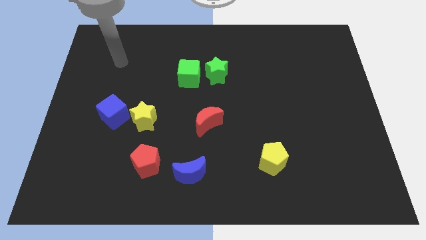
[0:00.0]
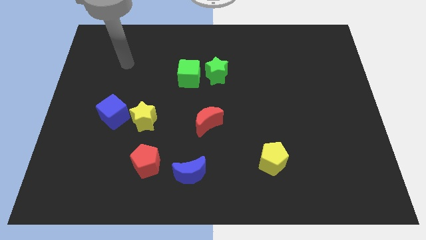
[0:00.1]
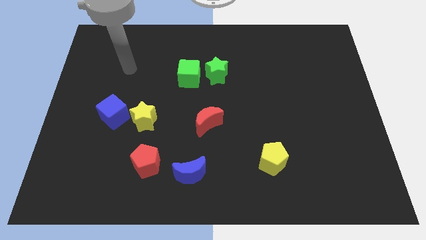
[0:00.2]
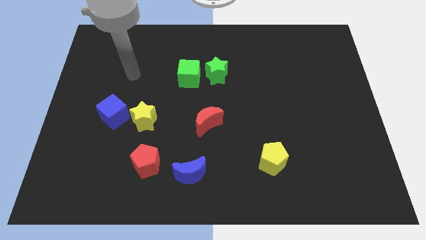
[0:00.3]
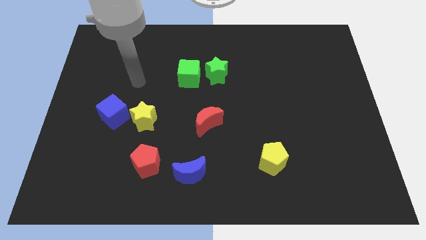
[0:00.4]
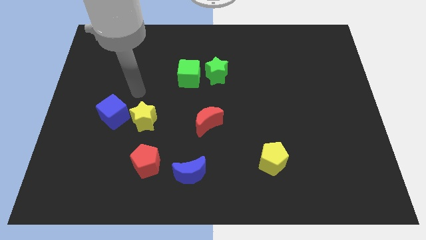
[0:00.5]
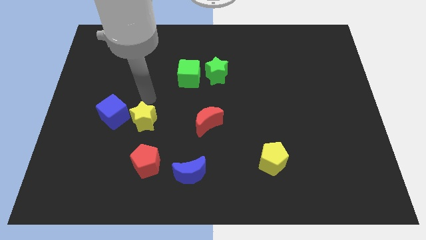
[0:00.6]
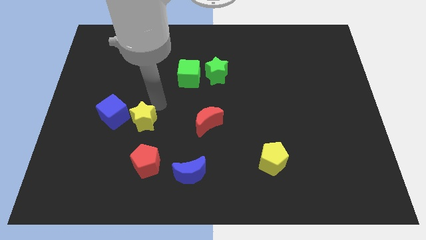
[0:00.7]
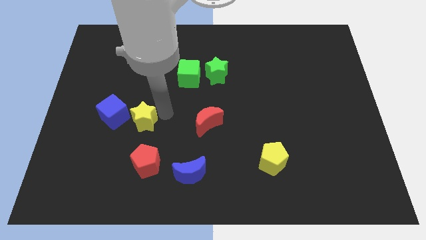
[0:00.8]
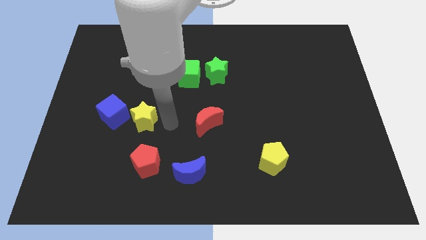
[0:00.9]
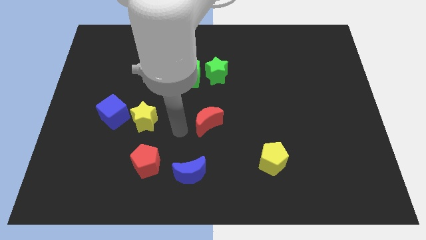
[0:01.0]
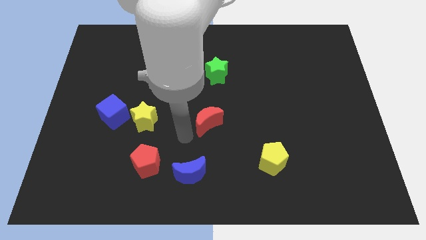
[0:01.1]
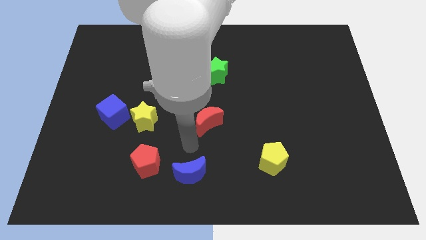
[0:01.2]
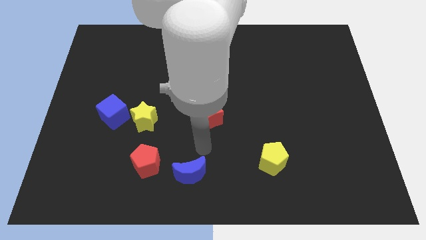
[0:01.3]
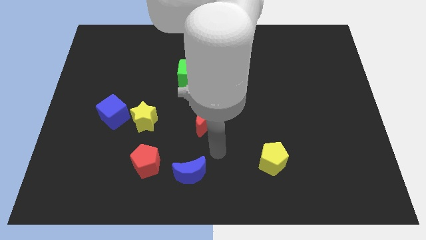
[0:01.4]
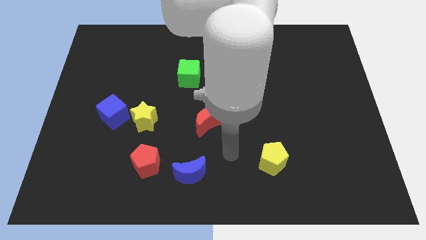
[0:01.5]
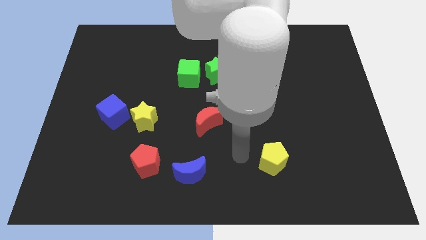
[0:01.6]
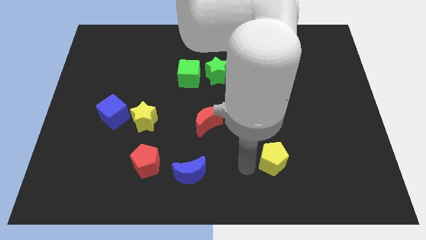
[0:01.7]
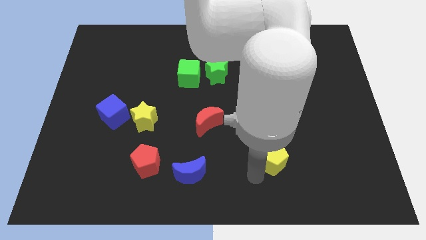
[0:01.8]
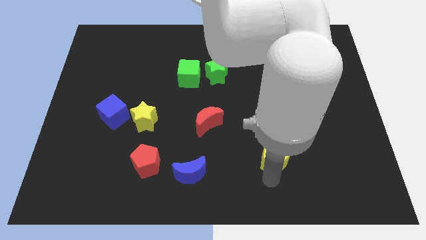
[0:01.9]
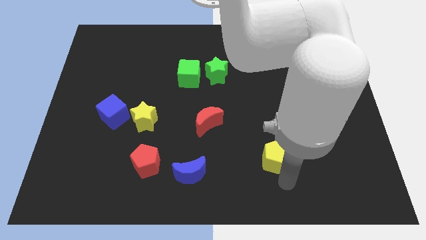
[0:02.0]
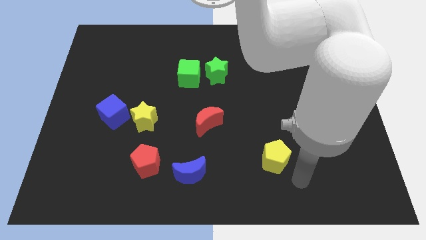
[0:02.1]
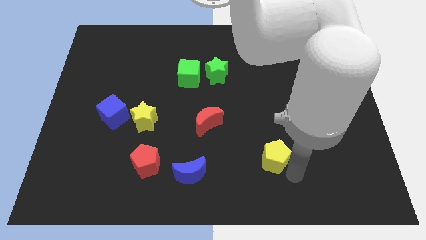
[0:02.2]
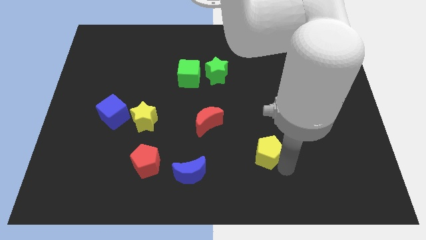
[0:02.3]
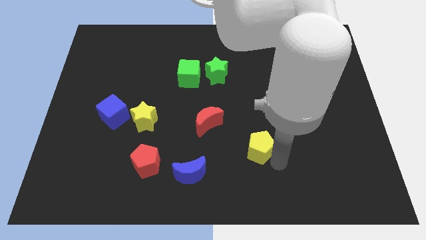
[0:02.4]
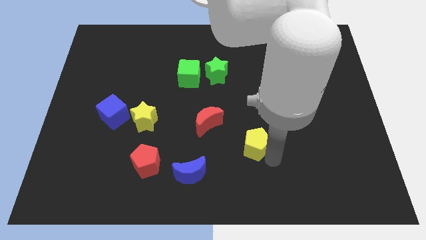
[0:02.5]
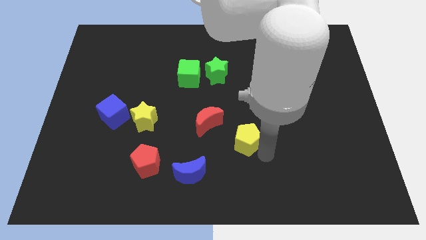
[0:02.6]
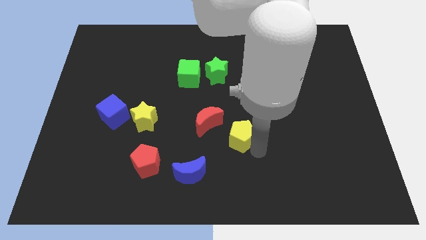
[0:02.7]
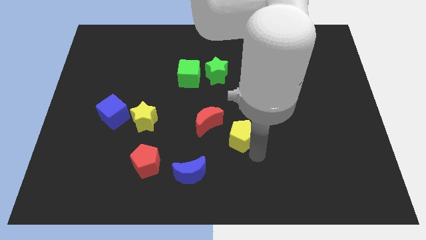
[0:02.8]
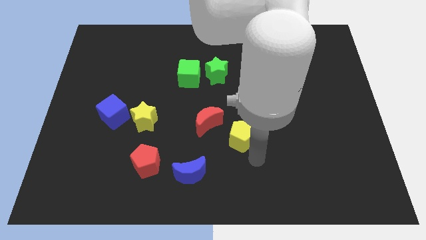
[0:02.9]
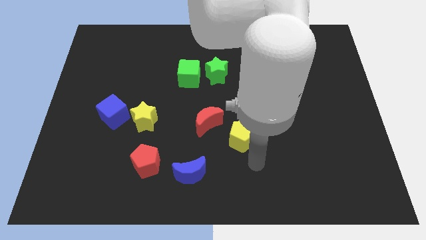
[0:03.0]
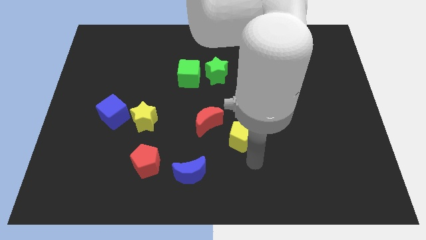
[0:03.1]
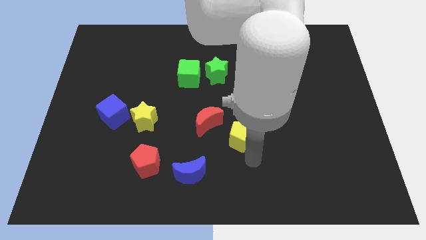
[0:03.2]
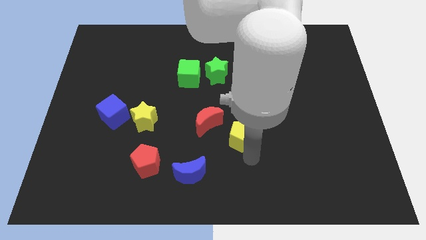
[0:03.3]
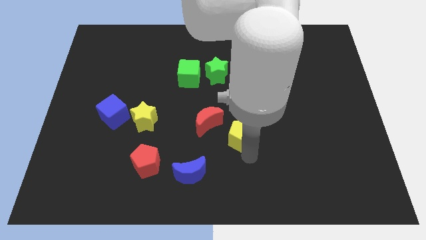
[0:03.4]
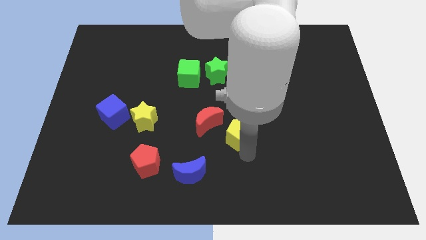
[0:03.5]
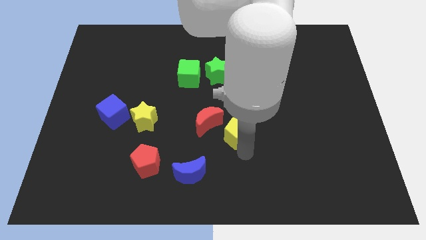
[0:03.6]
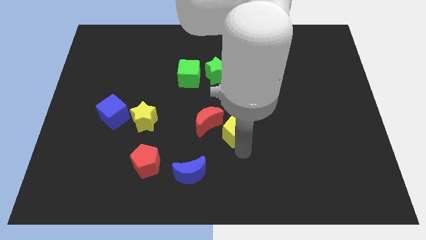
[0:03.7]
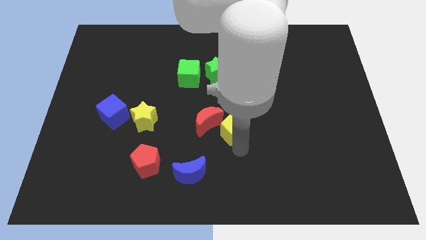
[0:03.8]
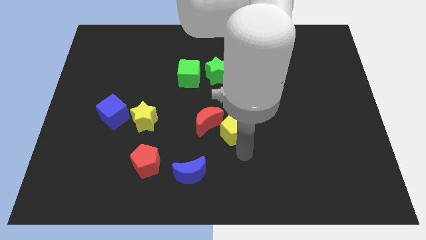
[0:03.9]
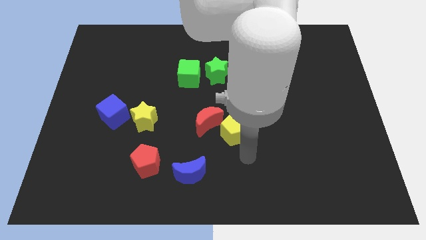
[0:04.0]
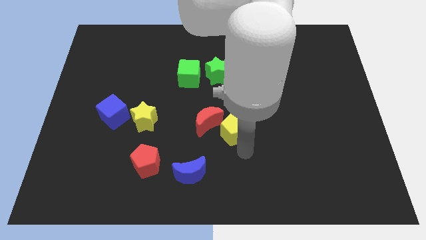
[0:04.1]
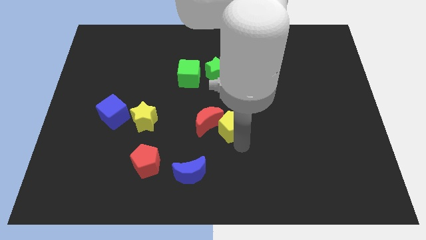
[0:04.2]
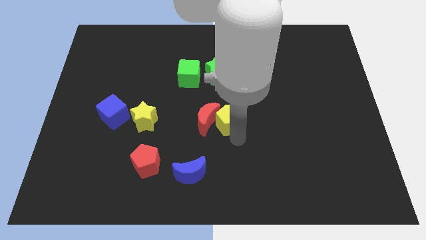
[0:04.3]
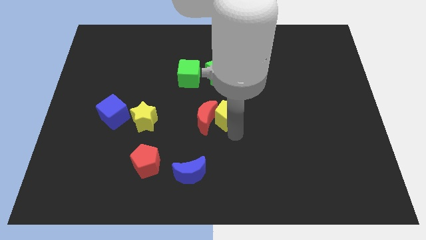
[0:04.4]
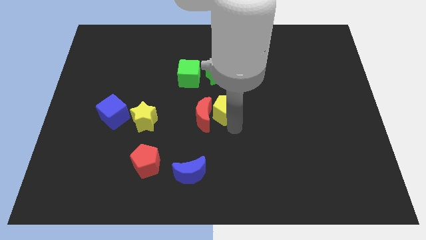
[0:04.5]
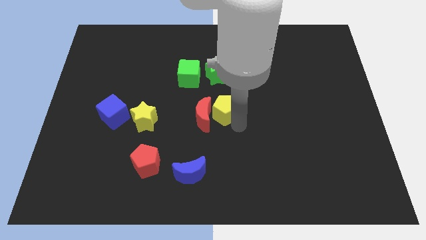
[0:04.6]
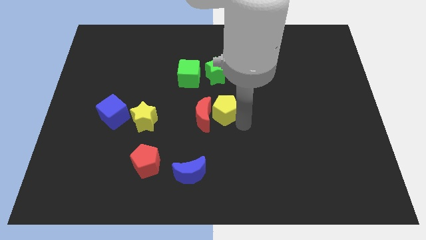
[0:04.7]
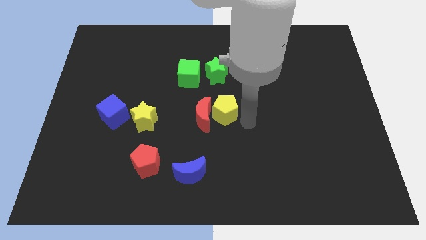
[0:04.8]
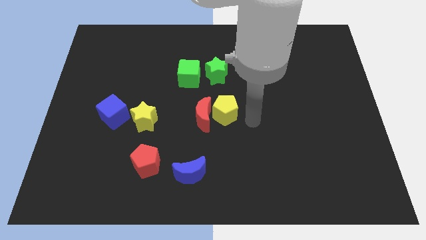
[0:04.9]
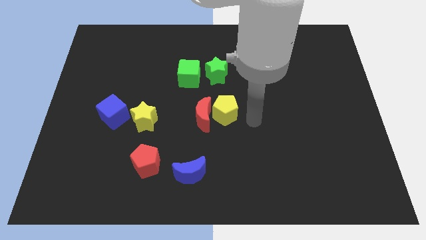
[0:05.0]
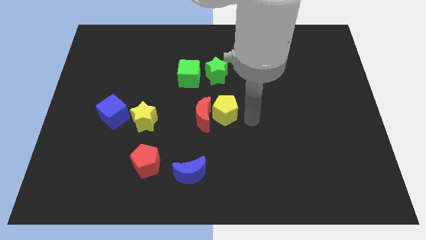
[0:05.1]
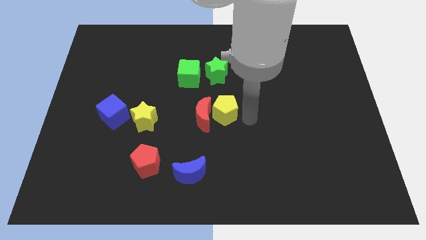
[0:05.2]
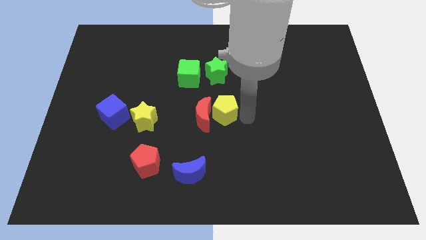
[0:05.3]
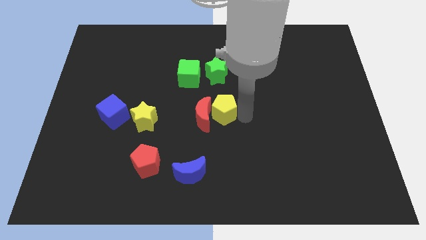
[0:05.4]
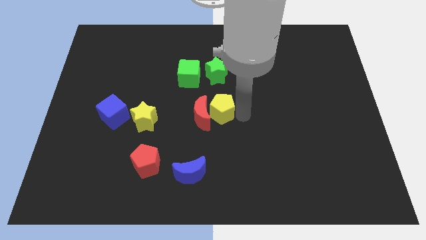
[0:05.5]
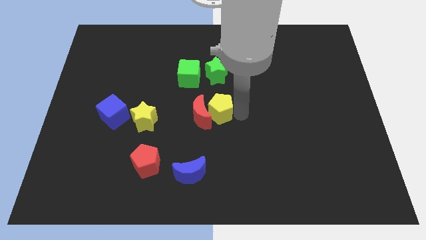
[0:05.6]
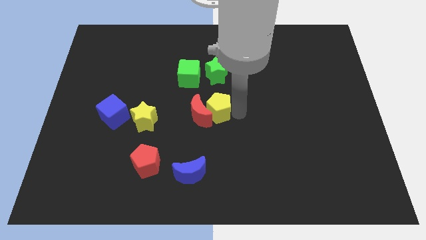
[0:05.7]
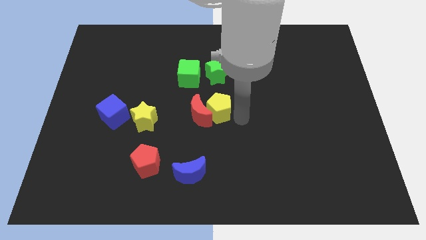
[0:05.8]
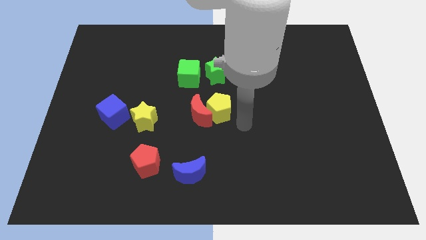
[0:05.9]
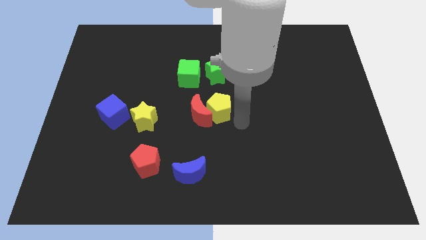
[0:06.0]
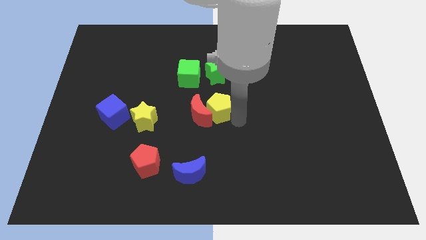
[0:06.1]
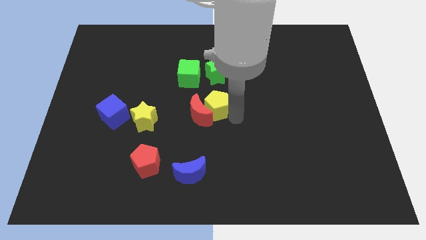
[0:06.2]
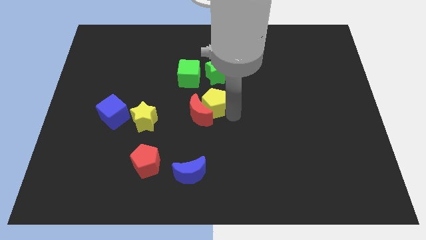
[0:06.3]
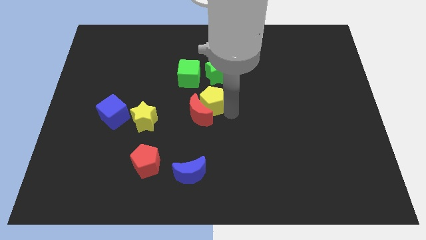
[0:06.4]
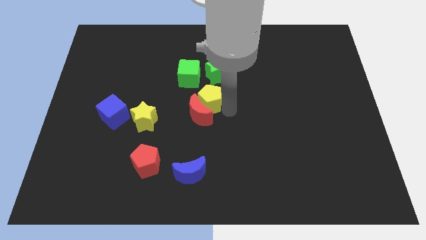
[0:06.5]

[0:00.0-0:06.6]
move the yellow pentagon up and left

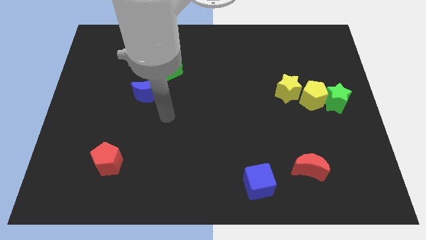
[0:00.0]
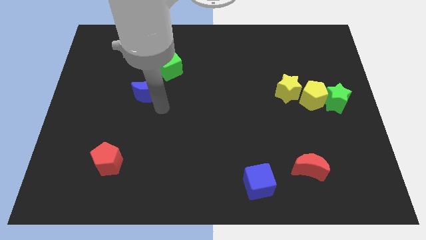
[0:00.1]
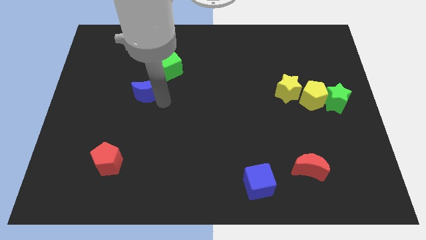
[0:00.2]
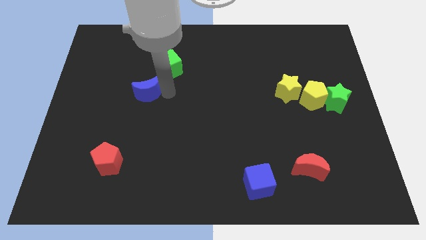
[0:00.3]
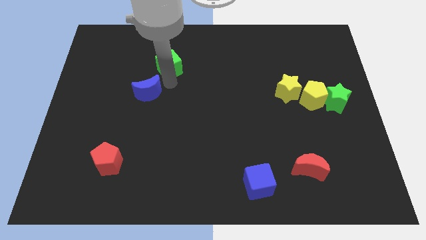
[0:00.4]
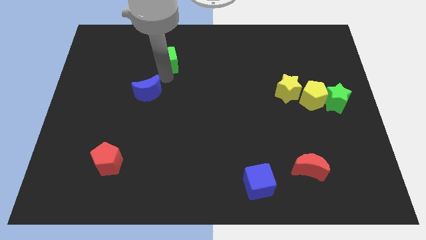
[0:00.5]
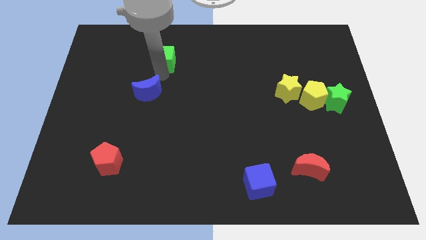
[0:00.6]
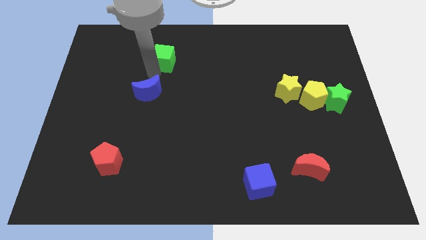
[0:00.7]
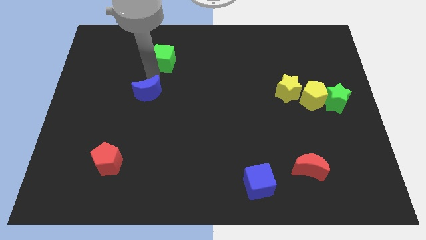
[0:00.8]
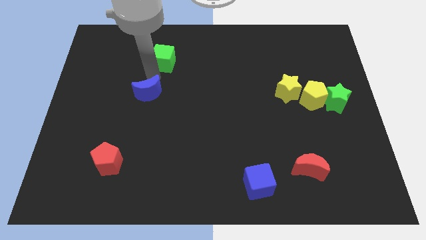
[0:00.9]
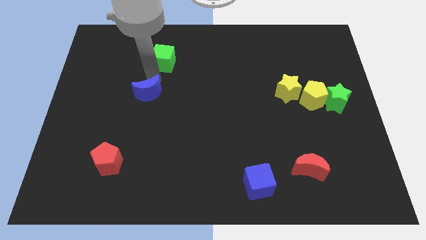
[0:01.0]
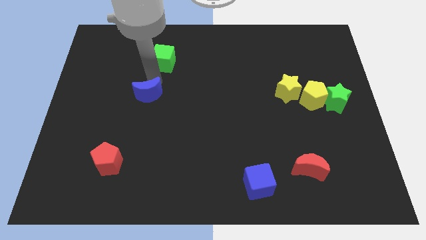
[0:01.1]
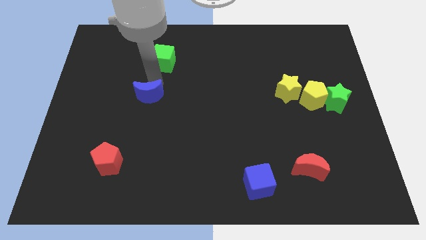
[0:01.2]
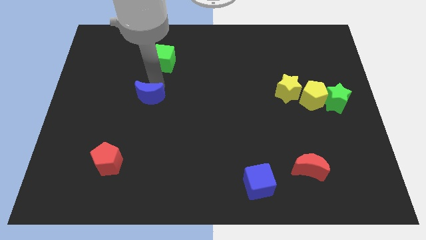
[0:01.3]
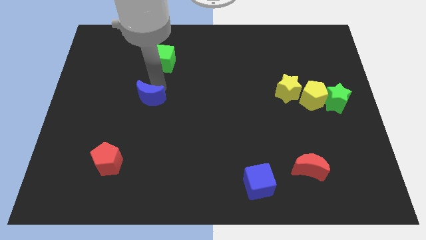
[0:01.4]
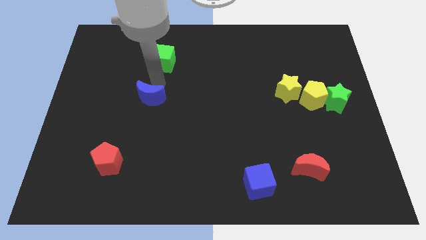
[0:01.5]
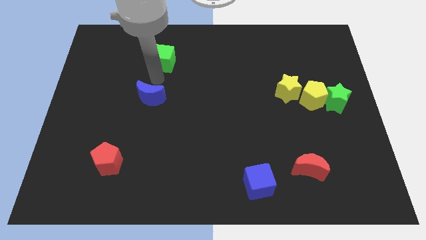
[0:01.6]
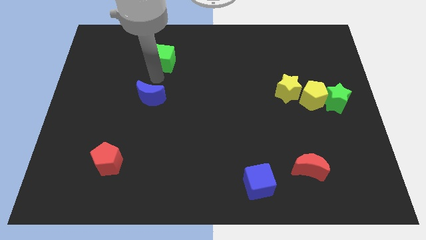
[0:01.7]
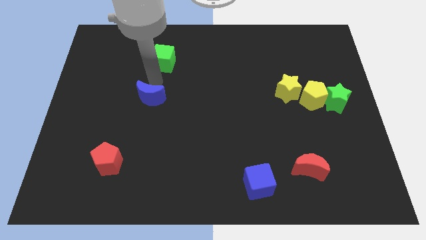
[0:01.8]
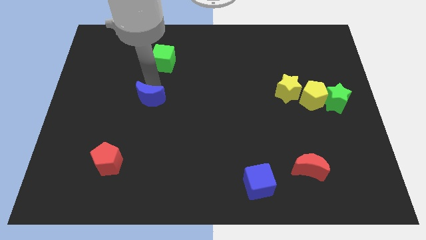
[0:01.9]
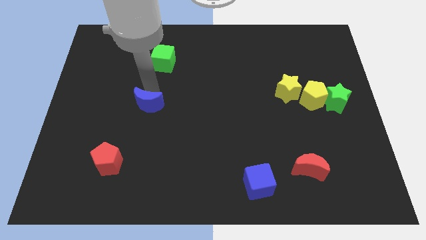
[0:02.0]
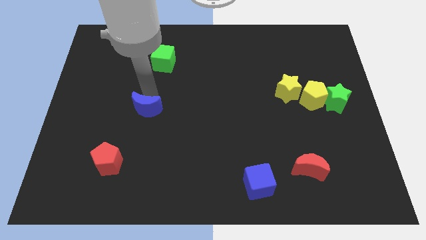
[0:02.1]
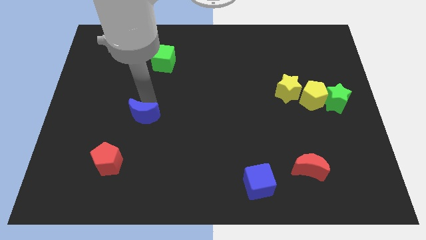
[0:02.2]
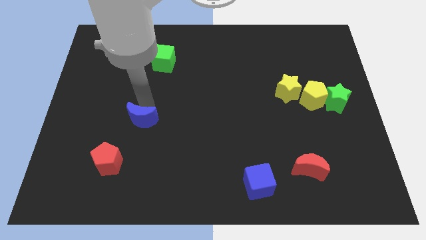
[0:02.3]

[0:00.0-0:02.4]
move the blue moon downwards a little bit
